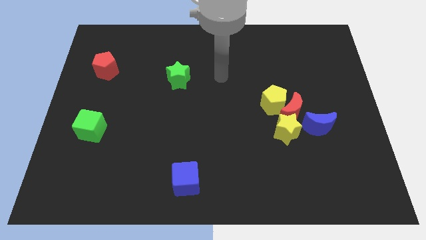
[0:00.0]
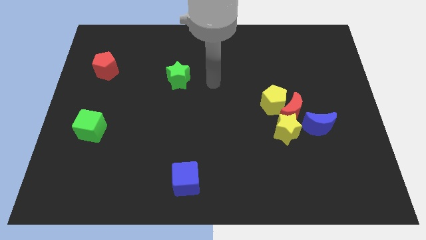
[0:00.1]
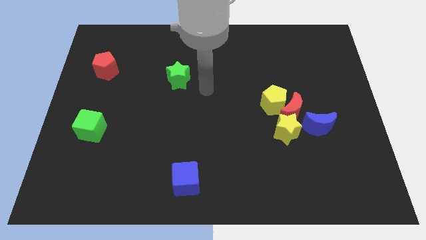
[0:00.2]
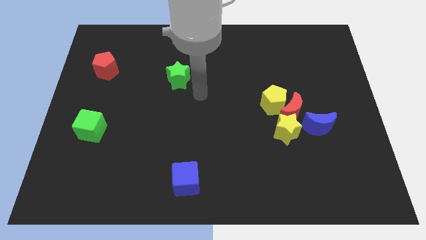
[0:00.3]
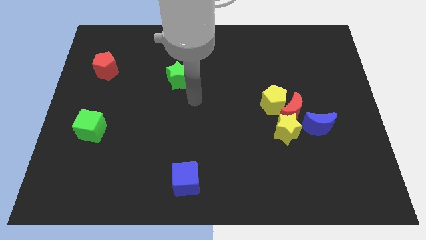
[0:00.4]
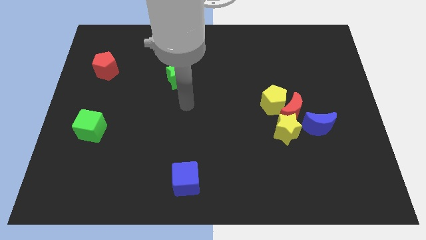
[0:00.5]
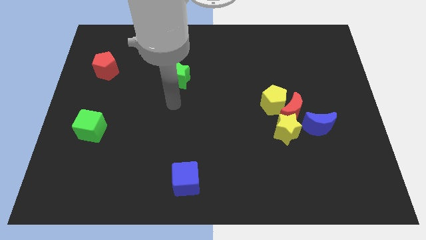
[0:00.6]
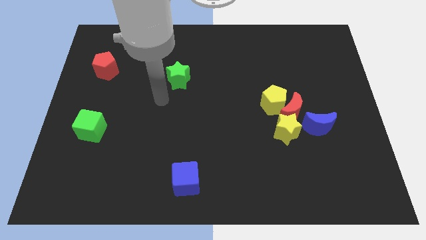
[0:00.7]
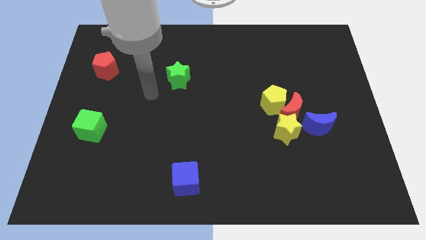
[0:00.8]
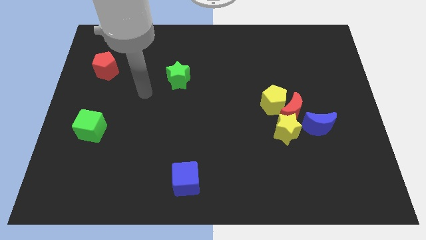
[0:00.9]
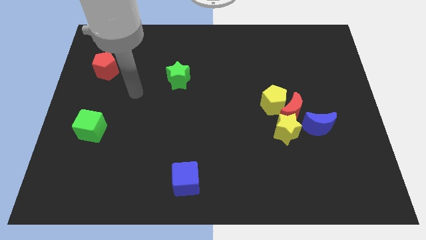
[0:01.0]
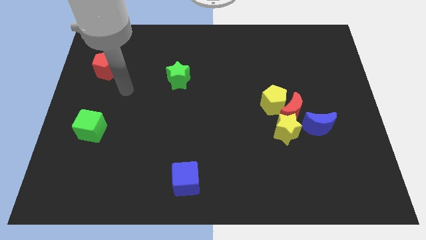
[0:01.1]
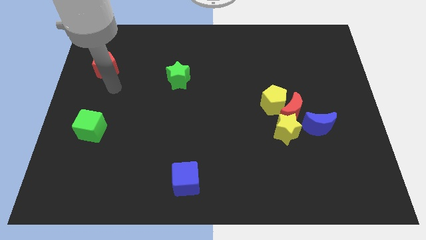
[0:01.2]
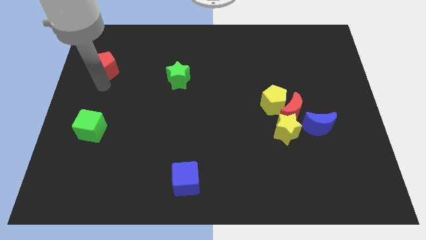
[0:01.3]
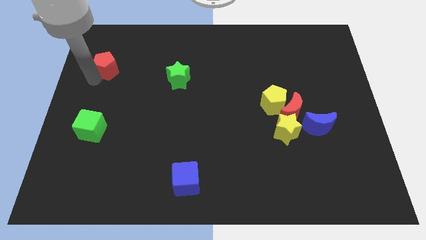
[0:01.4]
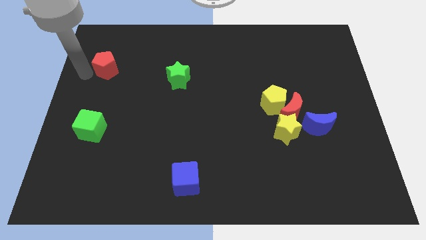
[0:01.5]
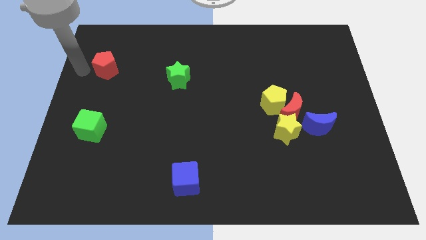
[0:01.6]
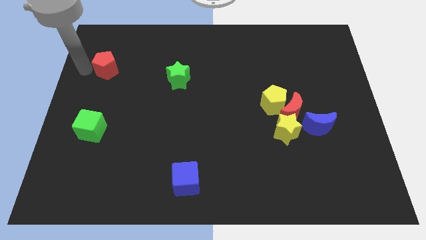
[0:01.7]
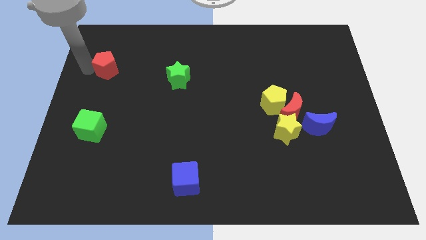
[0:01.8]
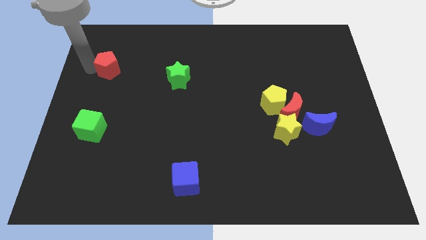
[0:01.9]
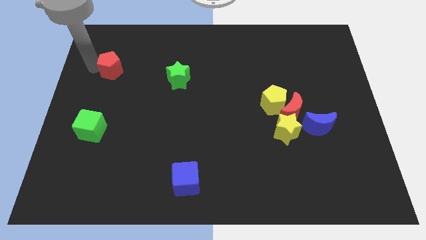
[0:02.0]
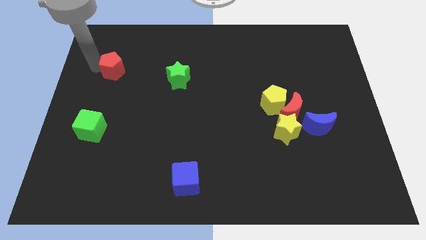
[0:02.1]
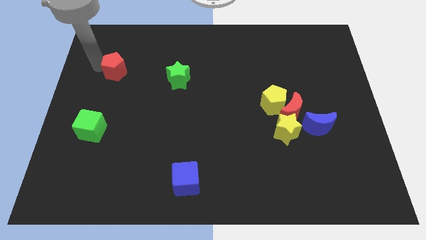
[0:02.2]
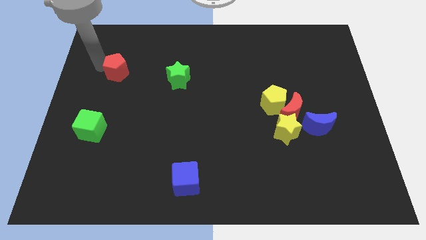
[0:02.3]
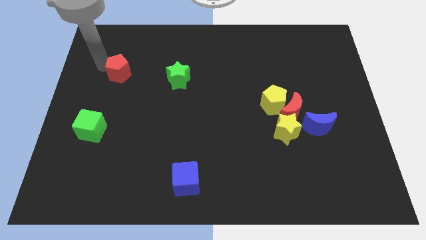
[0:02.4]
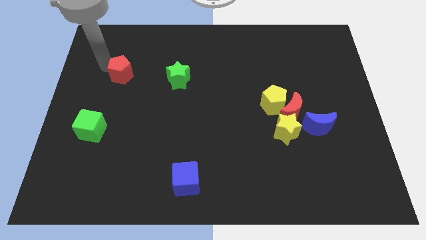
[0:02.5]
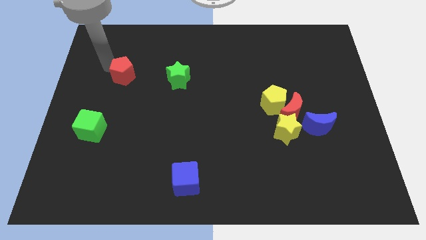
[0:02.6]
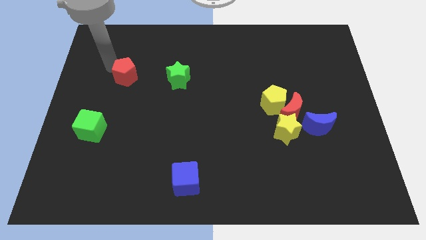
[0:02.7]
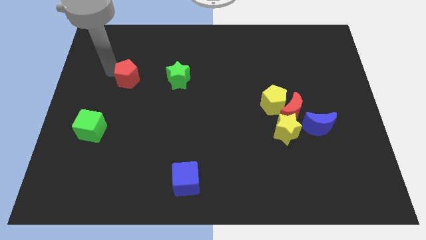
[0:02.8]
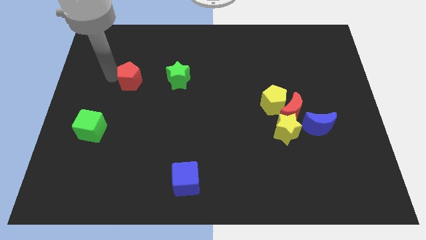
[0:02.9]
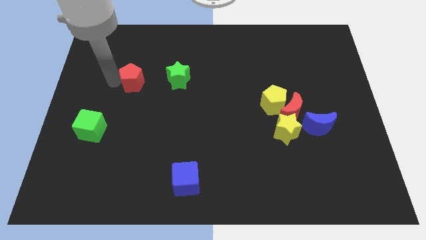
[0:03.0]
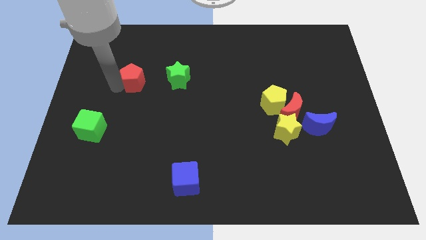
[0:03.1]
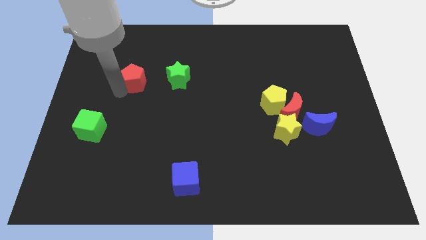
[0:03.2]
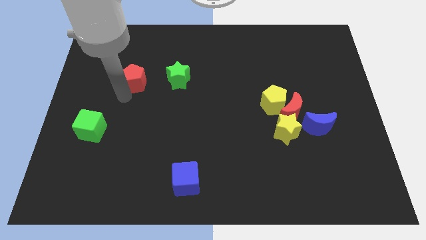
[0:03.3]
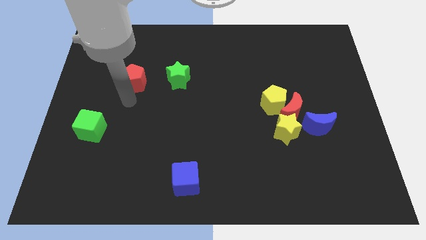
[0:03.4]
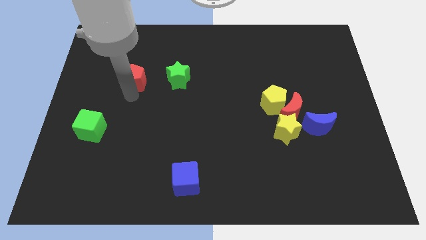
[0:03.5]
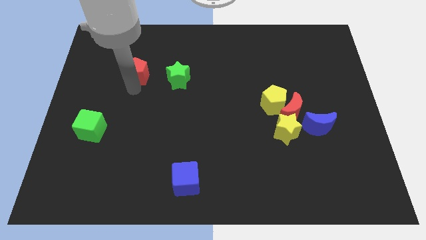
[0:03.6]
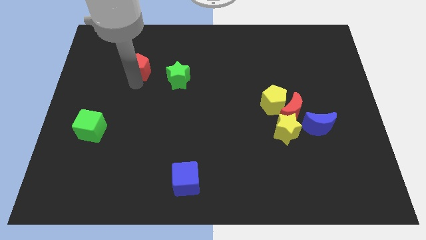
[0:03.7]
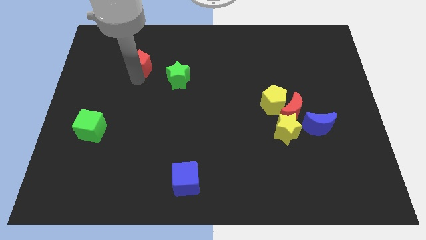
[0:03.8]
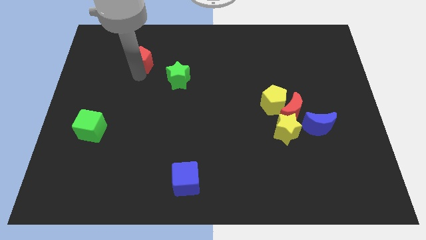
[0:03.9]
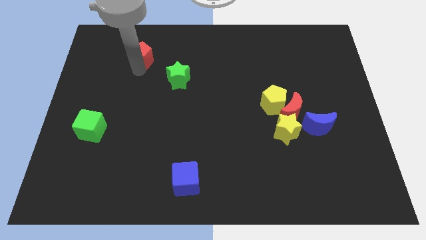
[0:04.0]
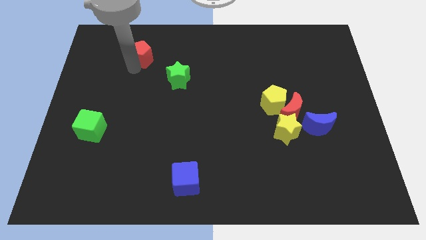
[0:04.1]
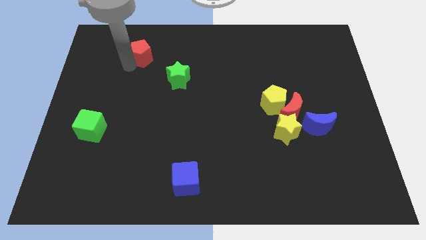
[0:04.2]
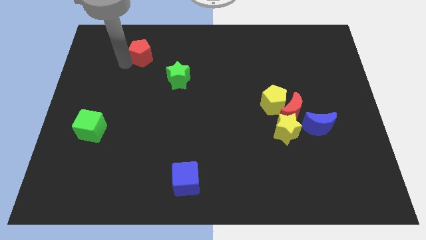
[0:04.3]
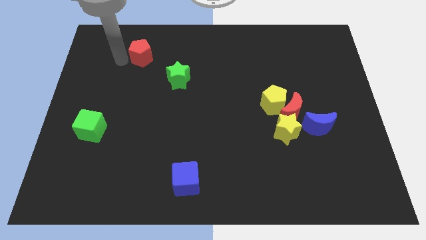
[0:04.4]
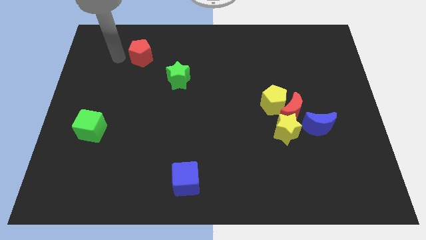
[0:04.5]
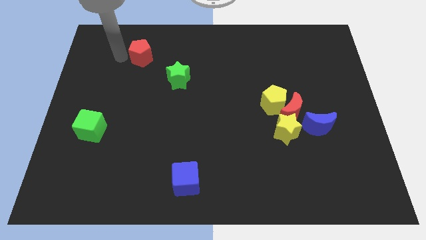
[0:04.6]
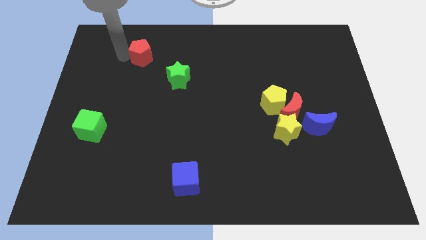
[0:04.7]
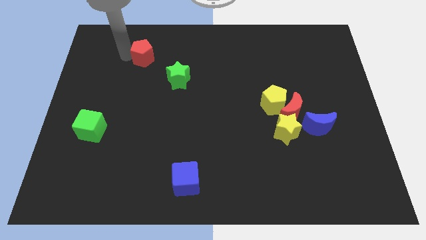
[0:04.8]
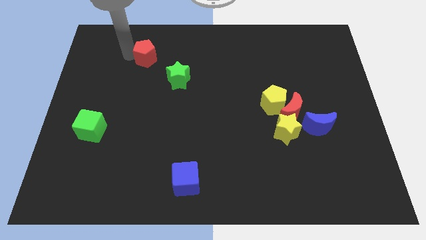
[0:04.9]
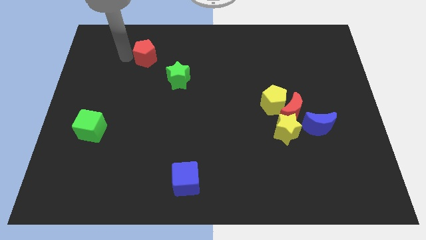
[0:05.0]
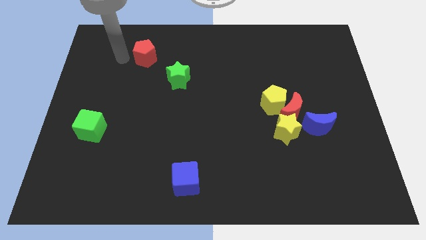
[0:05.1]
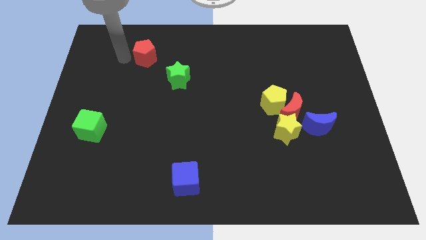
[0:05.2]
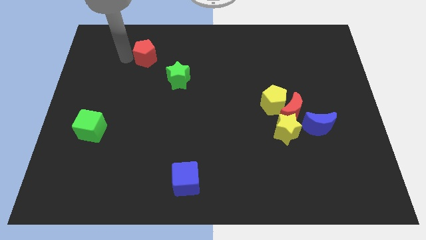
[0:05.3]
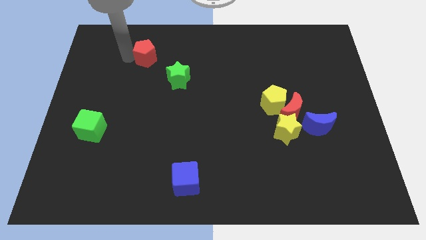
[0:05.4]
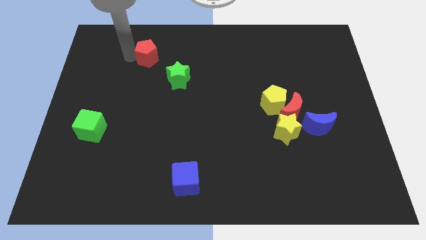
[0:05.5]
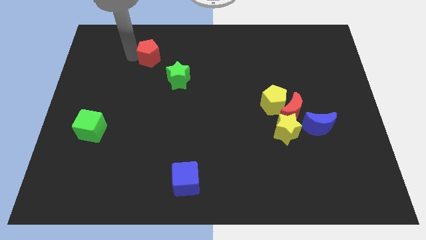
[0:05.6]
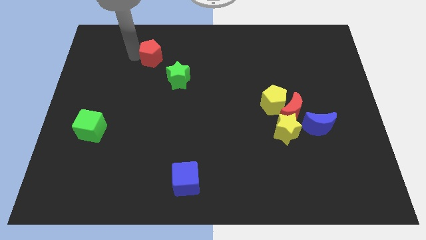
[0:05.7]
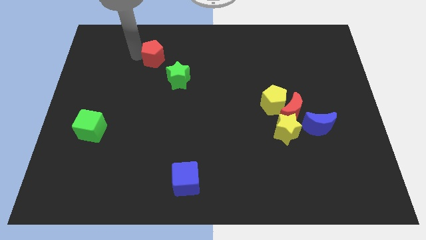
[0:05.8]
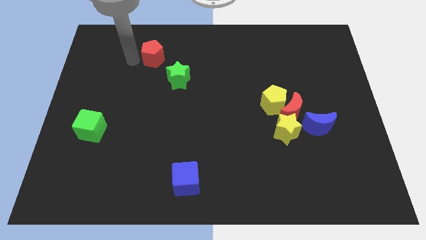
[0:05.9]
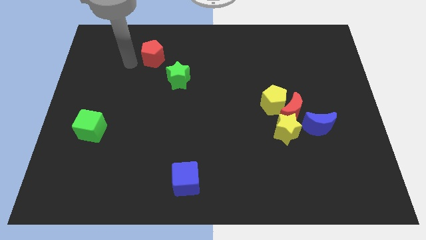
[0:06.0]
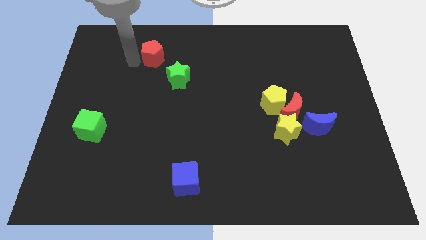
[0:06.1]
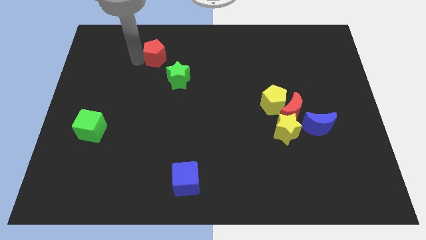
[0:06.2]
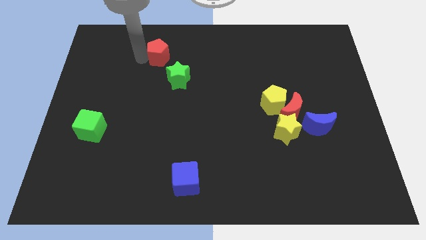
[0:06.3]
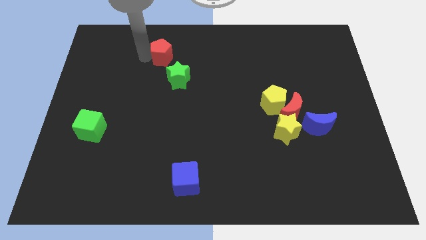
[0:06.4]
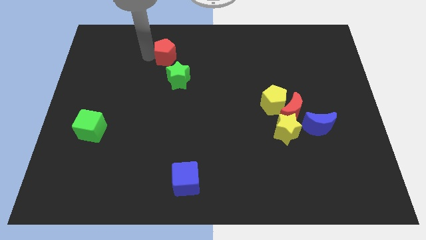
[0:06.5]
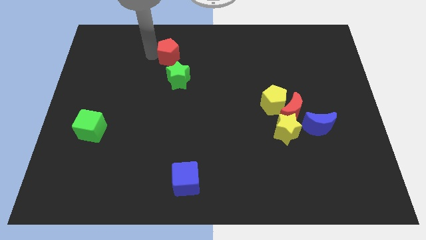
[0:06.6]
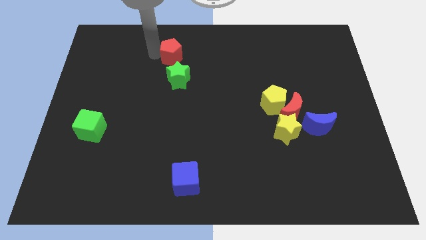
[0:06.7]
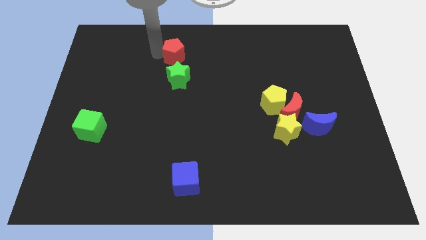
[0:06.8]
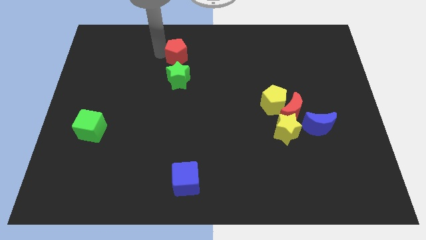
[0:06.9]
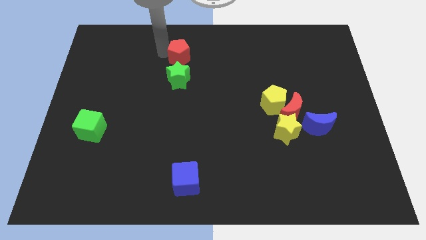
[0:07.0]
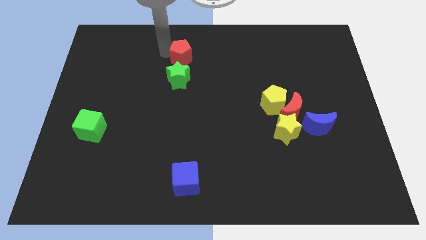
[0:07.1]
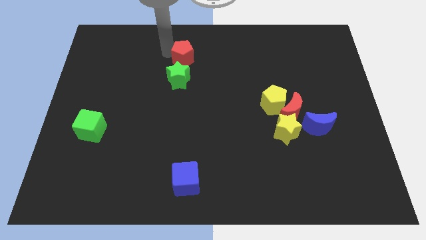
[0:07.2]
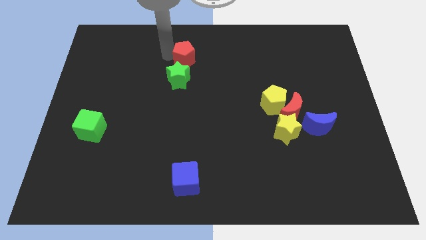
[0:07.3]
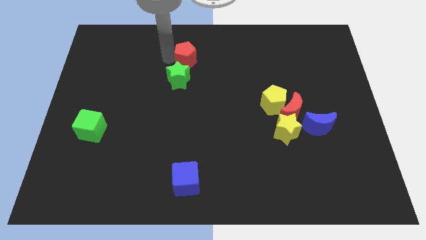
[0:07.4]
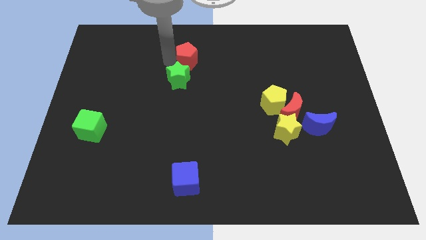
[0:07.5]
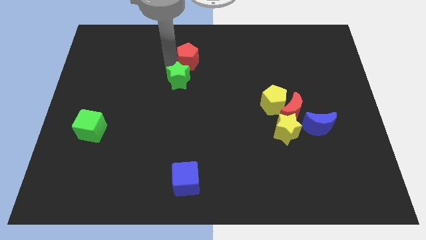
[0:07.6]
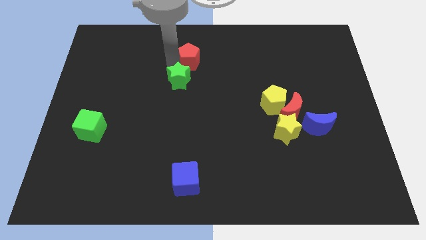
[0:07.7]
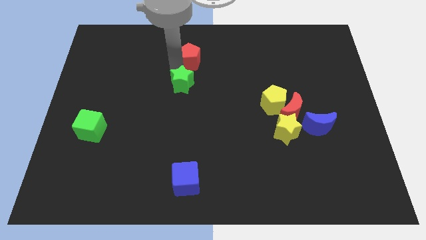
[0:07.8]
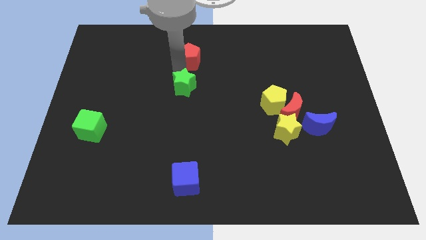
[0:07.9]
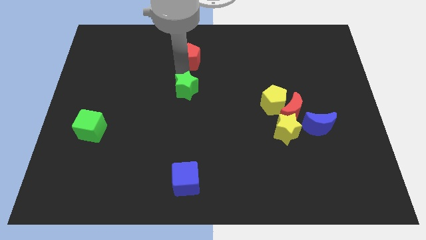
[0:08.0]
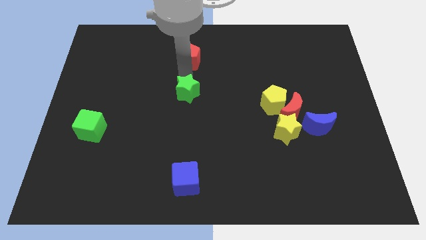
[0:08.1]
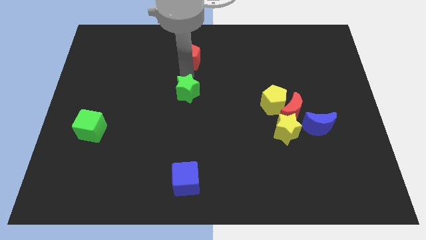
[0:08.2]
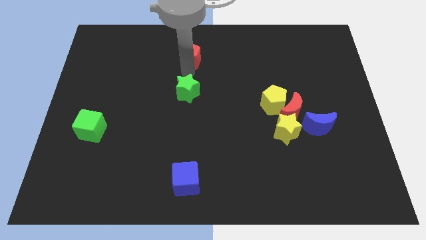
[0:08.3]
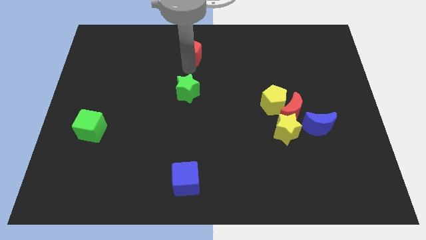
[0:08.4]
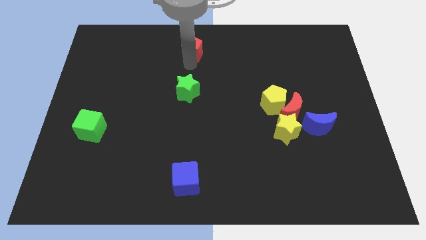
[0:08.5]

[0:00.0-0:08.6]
move the red pentagon to the towards your base
